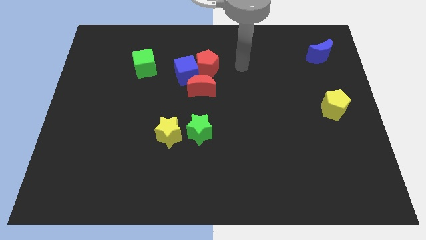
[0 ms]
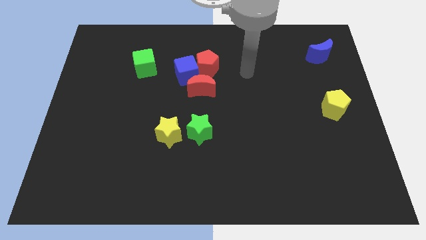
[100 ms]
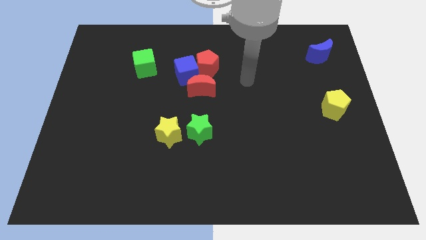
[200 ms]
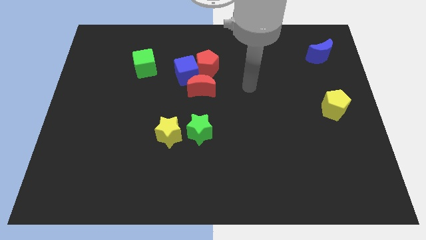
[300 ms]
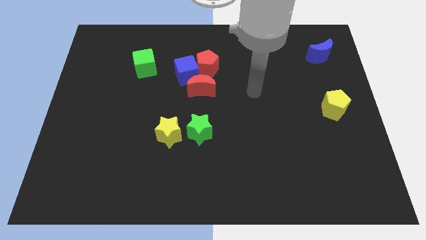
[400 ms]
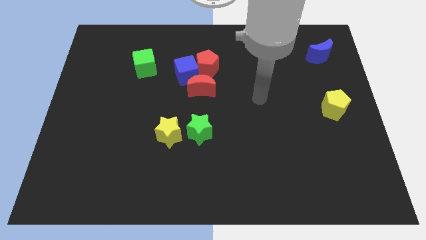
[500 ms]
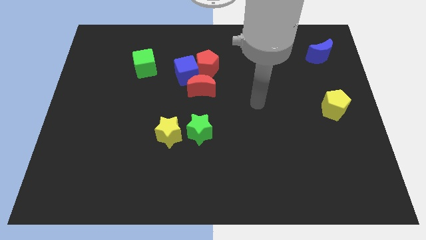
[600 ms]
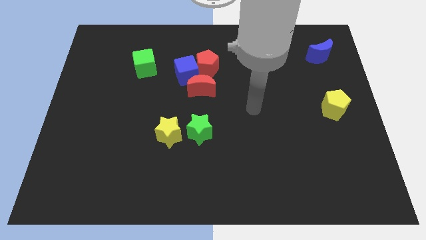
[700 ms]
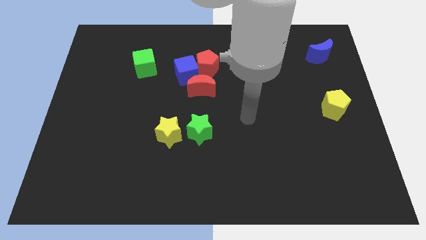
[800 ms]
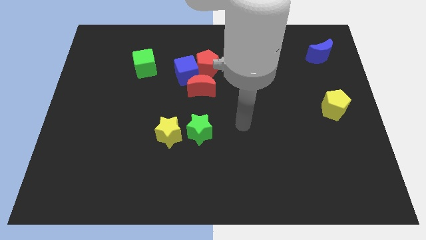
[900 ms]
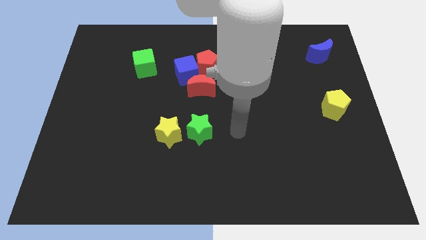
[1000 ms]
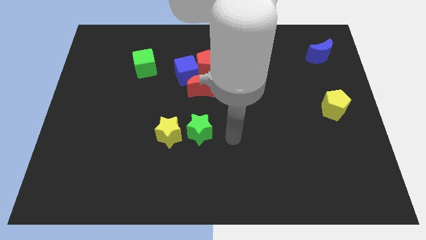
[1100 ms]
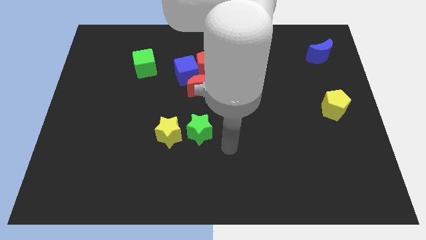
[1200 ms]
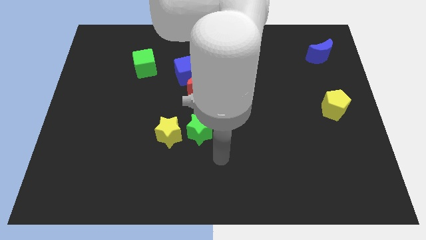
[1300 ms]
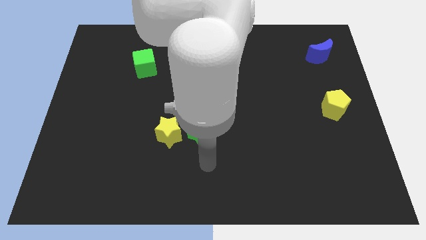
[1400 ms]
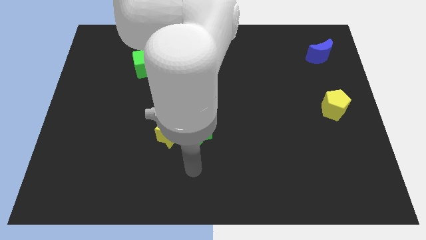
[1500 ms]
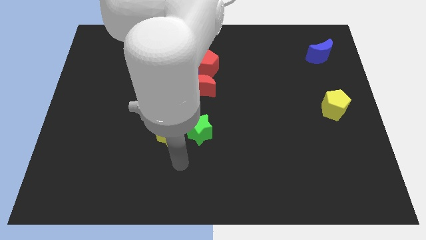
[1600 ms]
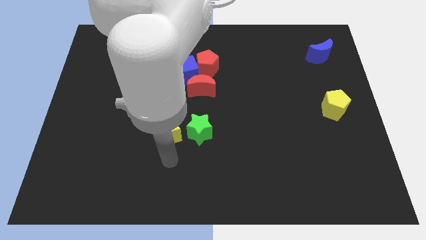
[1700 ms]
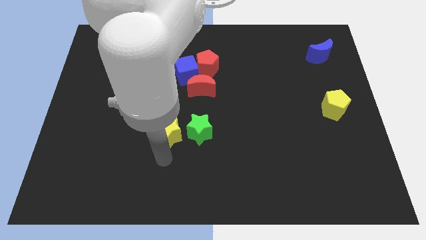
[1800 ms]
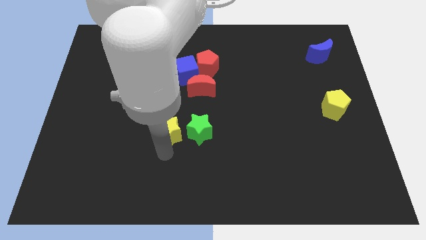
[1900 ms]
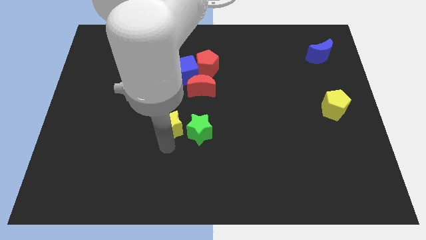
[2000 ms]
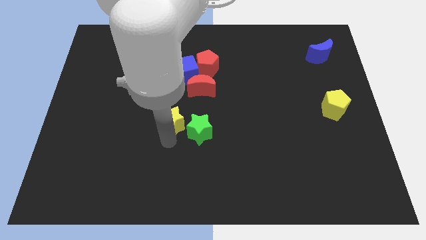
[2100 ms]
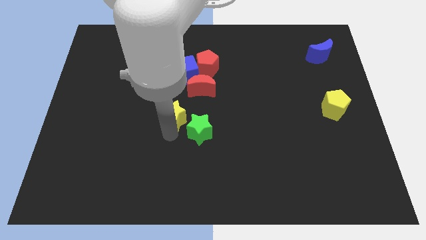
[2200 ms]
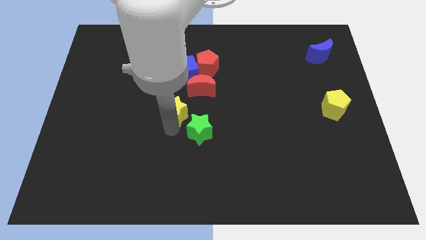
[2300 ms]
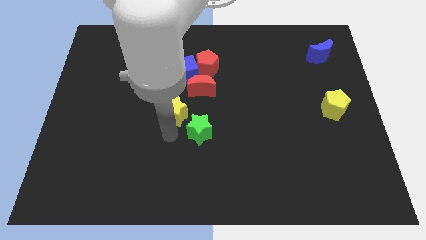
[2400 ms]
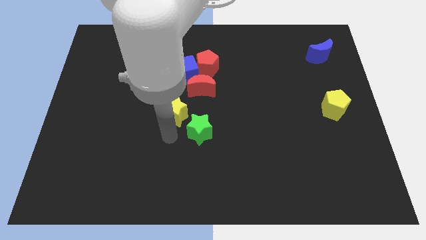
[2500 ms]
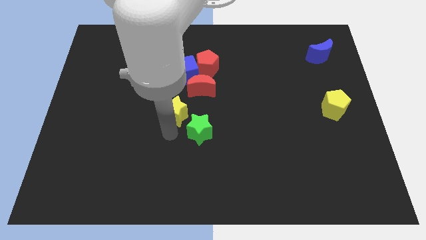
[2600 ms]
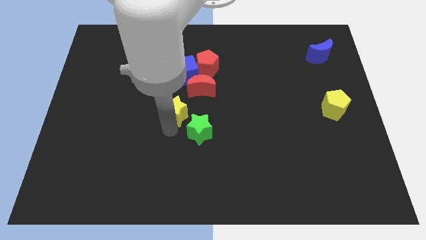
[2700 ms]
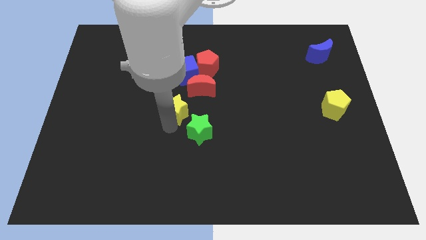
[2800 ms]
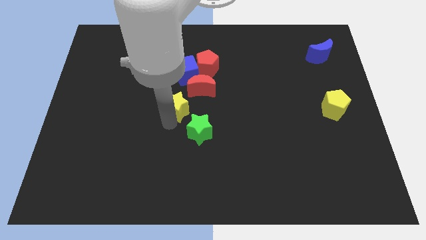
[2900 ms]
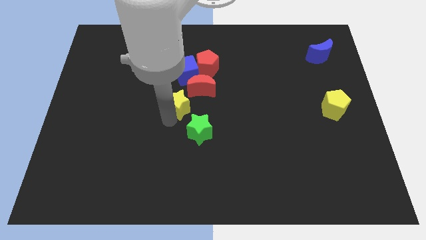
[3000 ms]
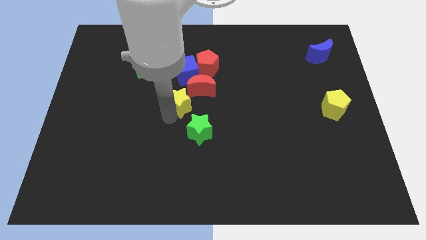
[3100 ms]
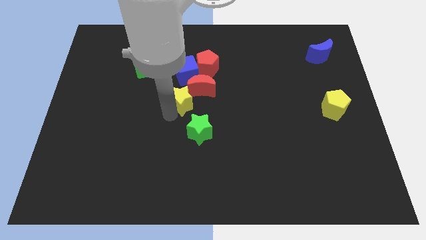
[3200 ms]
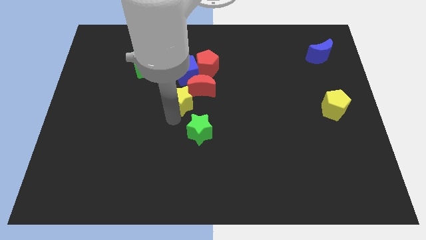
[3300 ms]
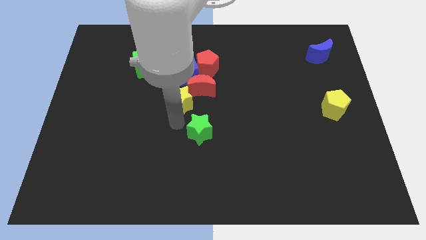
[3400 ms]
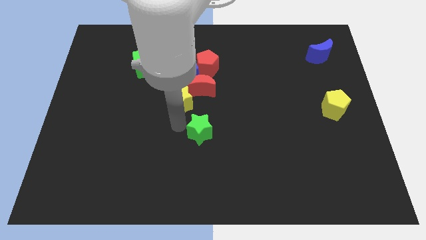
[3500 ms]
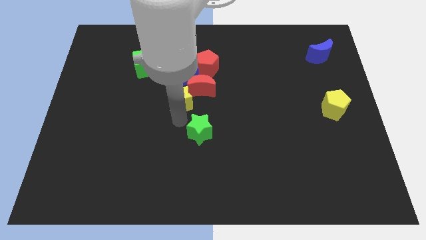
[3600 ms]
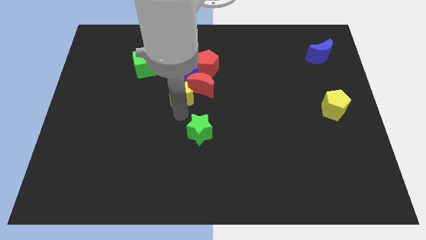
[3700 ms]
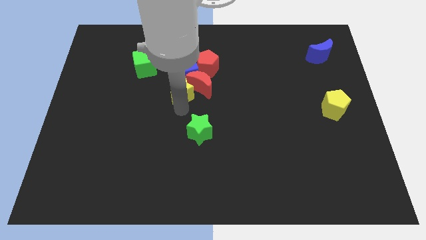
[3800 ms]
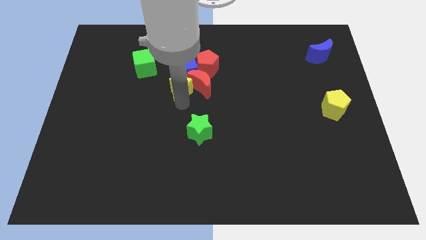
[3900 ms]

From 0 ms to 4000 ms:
move the yellow star next to the blue cube

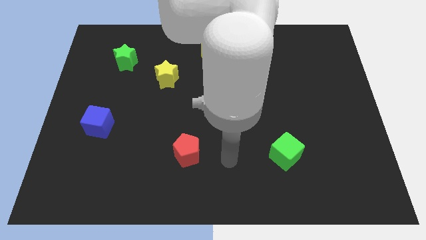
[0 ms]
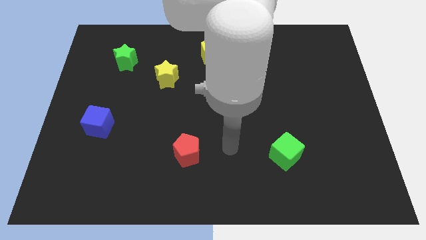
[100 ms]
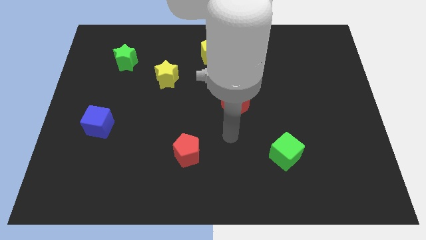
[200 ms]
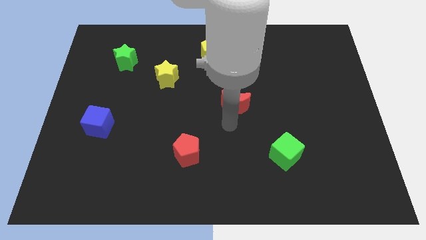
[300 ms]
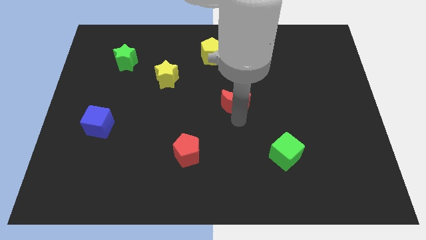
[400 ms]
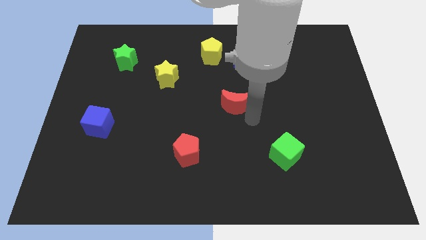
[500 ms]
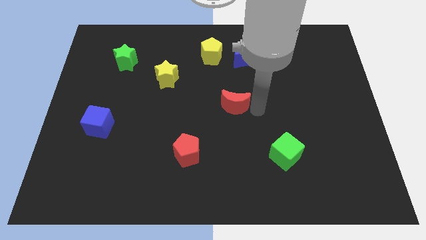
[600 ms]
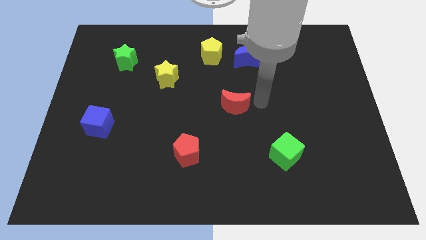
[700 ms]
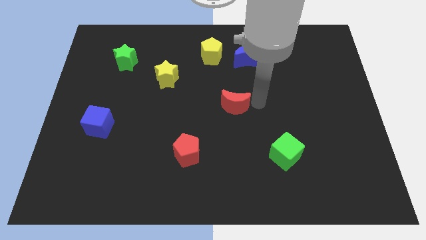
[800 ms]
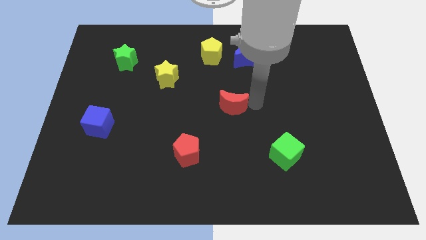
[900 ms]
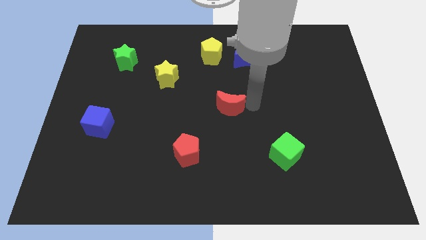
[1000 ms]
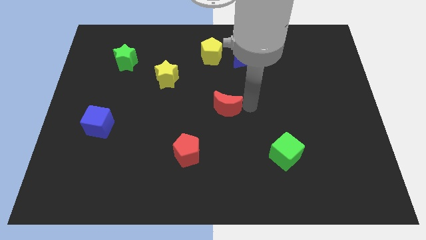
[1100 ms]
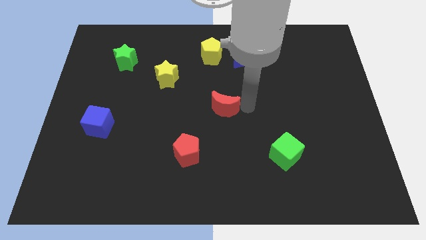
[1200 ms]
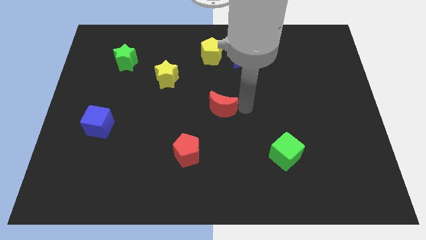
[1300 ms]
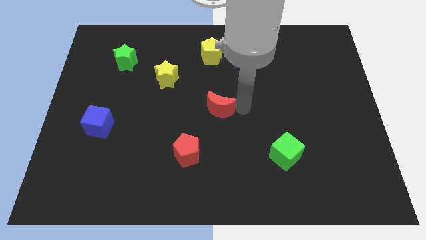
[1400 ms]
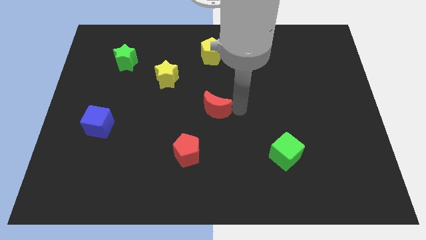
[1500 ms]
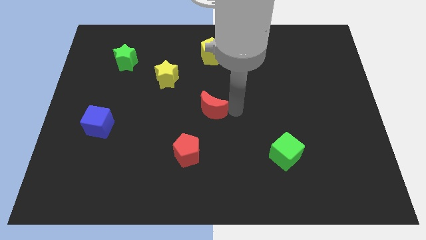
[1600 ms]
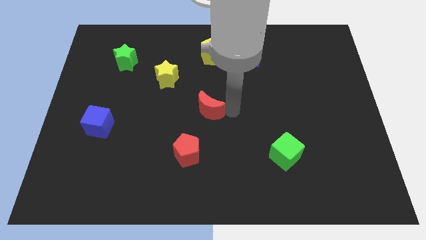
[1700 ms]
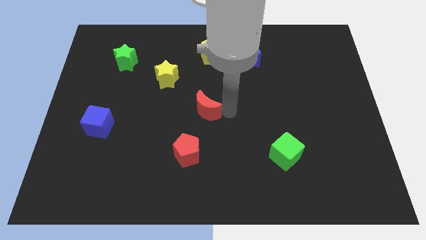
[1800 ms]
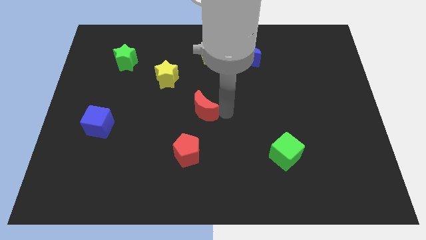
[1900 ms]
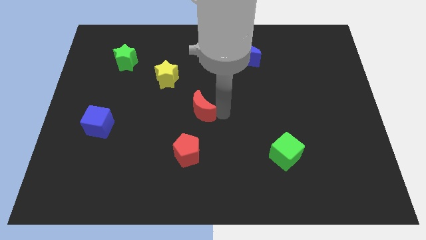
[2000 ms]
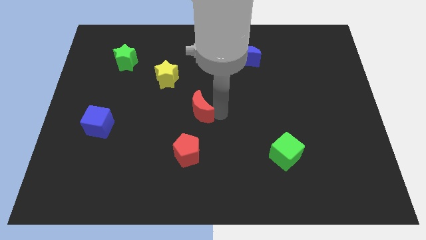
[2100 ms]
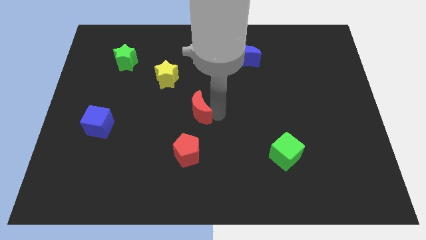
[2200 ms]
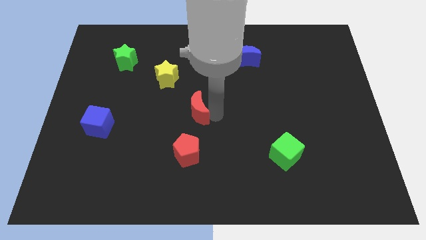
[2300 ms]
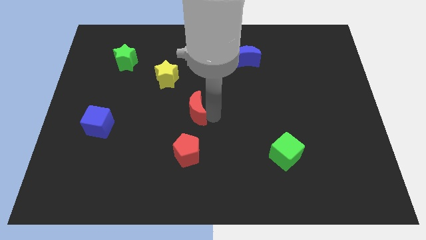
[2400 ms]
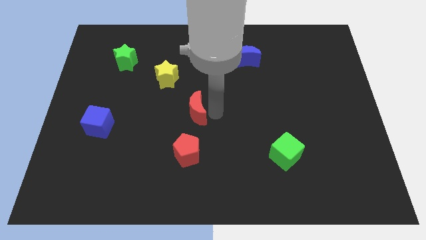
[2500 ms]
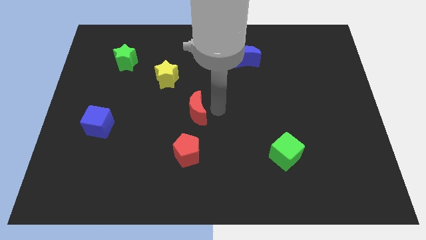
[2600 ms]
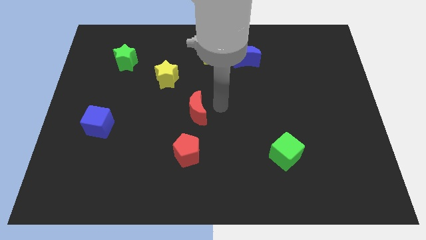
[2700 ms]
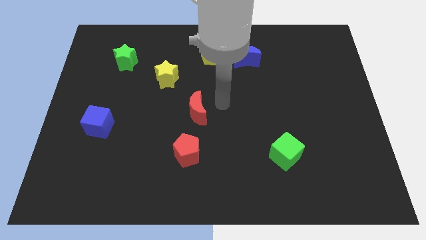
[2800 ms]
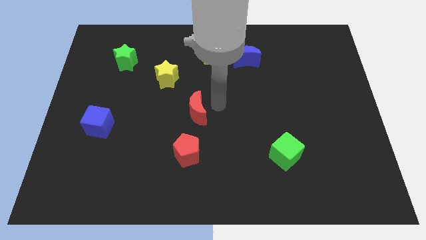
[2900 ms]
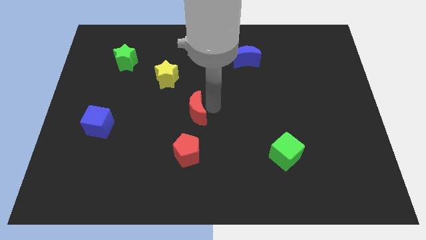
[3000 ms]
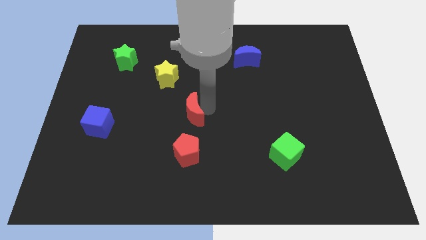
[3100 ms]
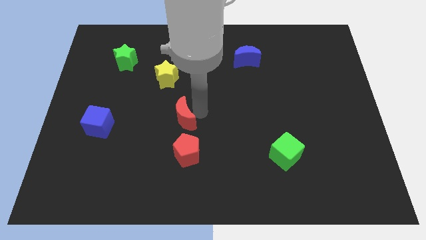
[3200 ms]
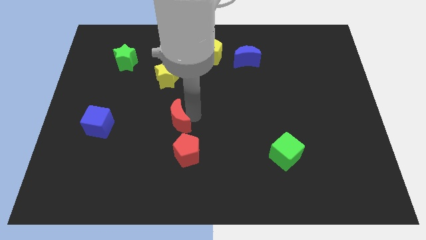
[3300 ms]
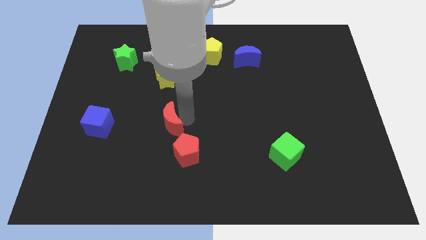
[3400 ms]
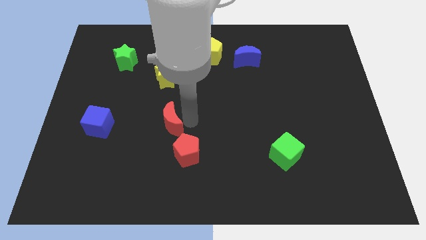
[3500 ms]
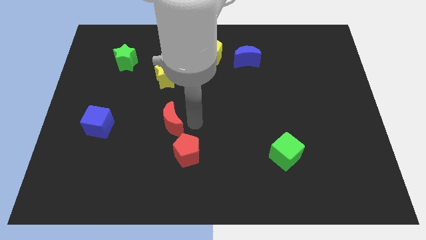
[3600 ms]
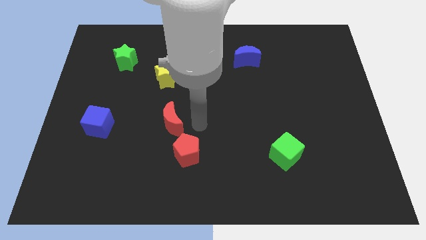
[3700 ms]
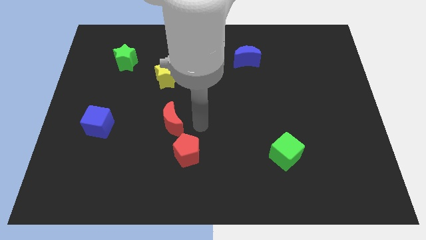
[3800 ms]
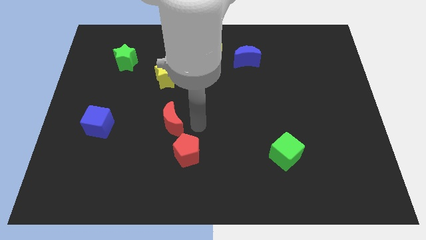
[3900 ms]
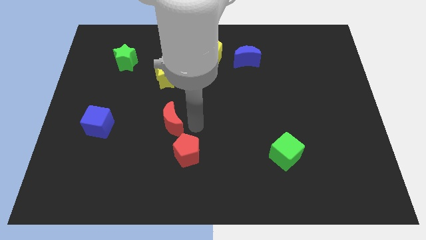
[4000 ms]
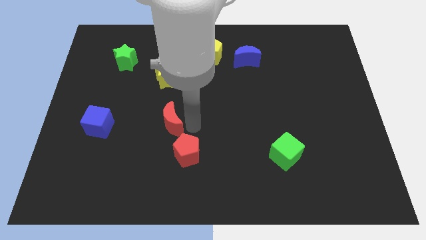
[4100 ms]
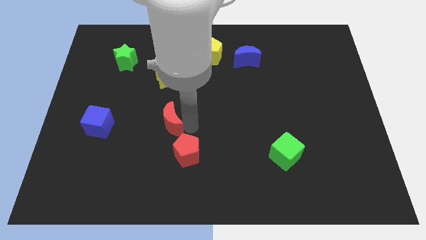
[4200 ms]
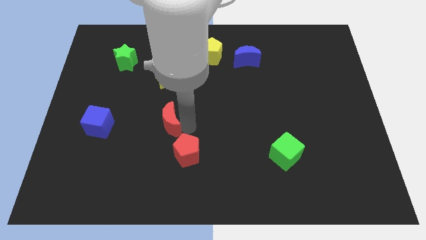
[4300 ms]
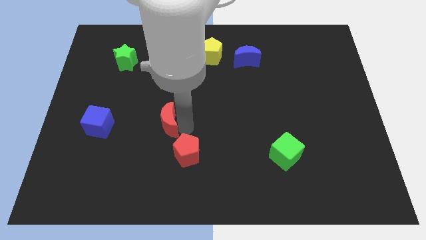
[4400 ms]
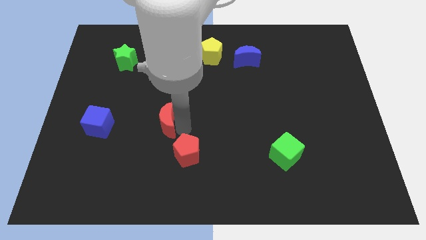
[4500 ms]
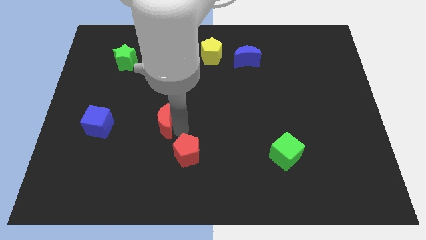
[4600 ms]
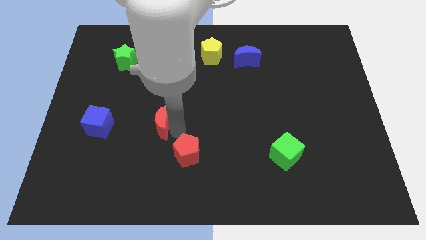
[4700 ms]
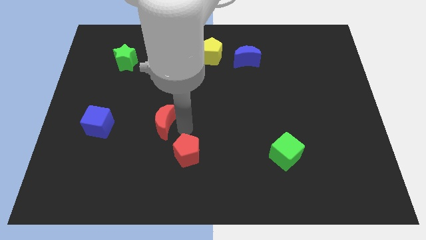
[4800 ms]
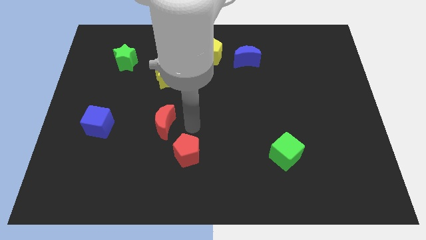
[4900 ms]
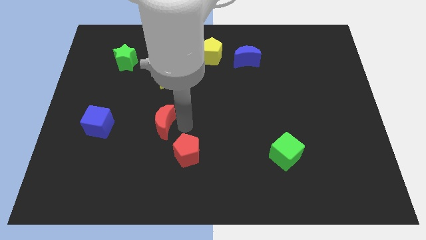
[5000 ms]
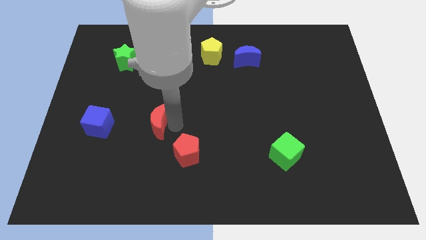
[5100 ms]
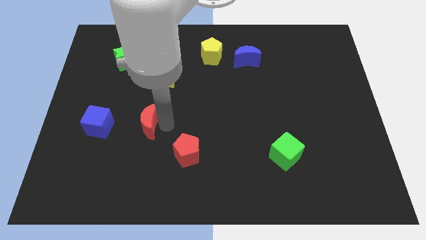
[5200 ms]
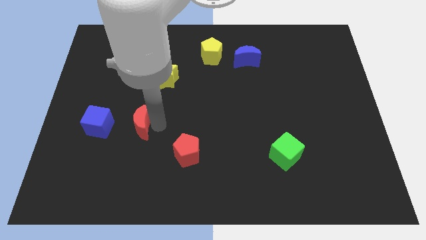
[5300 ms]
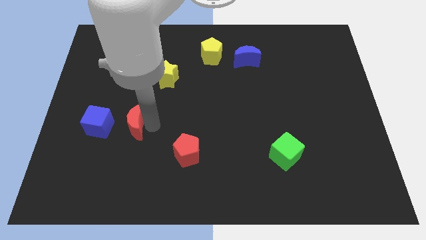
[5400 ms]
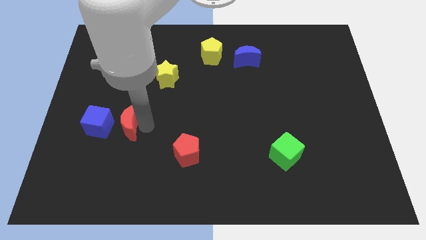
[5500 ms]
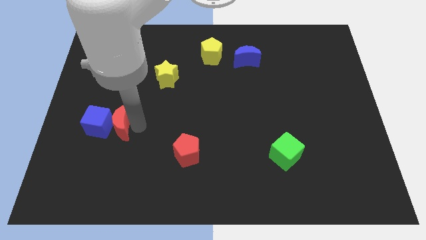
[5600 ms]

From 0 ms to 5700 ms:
slide the red moon close to the blue cube
